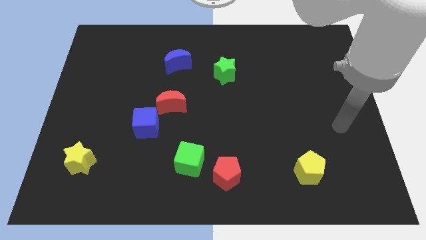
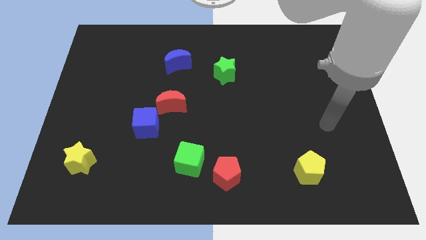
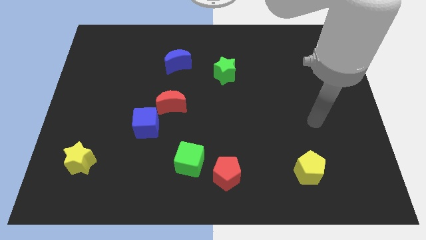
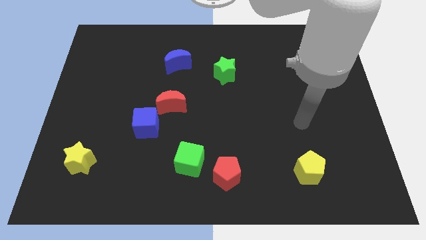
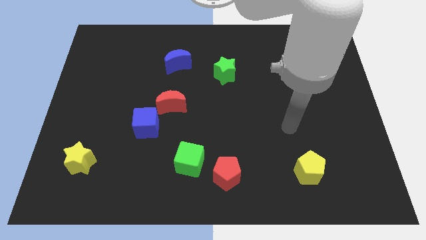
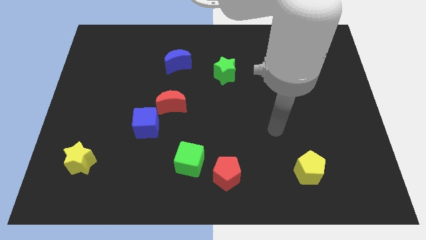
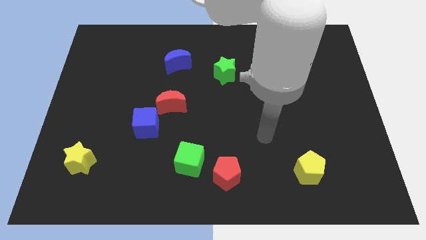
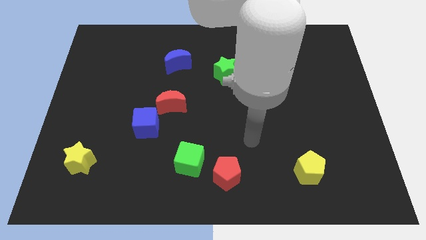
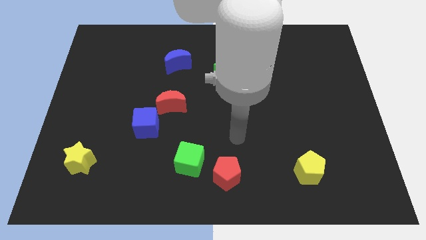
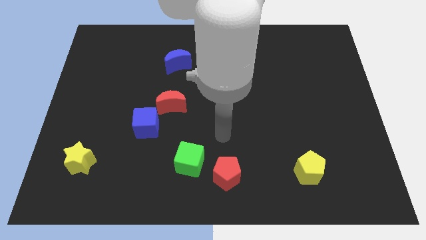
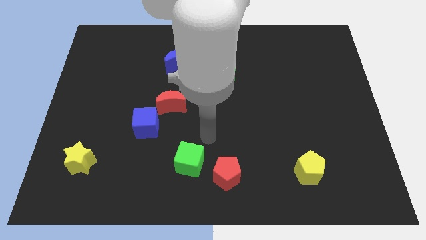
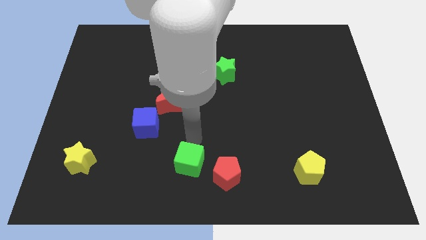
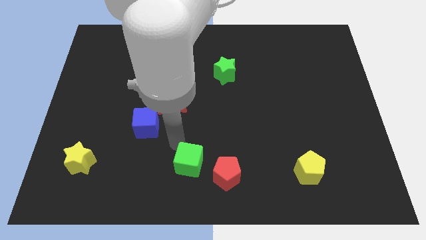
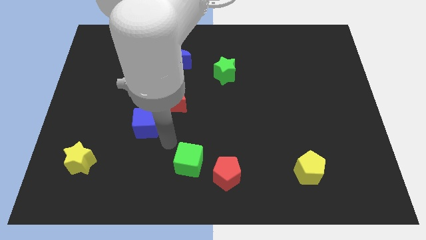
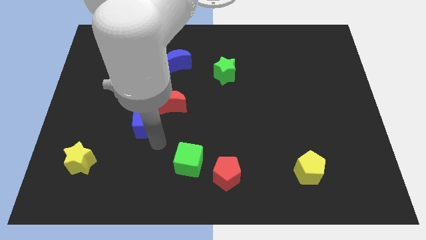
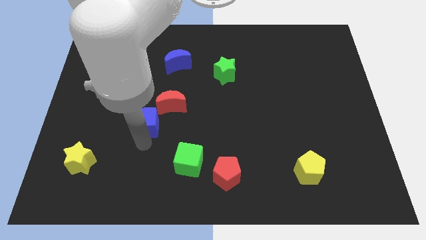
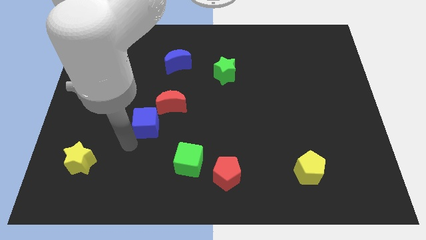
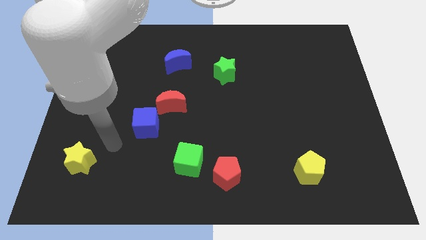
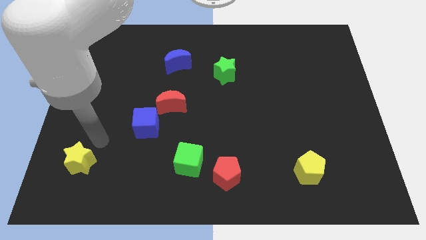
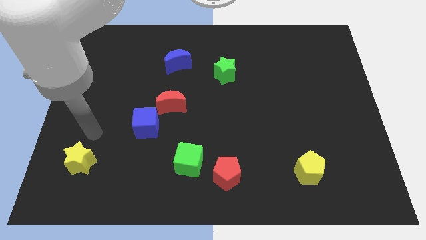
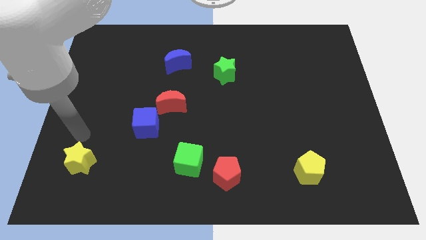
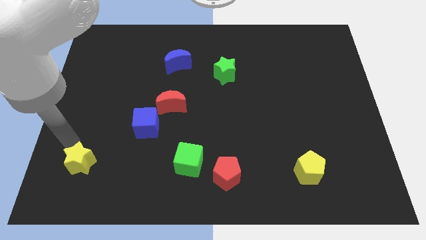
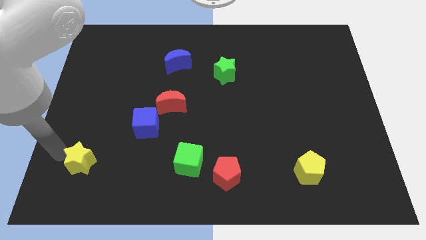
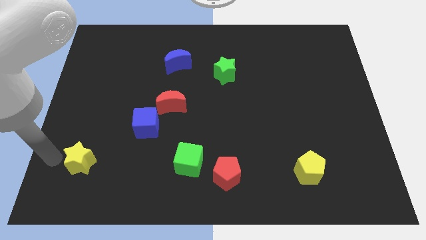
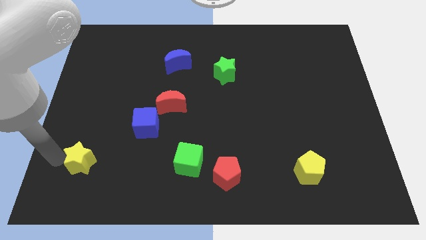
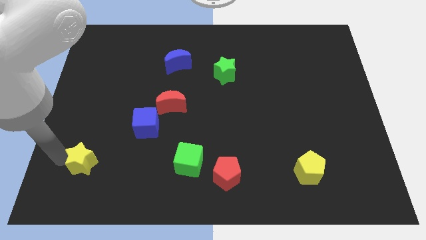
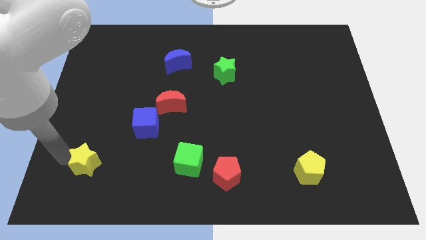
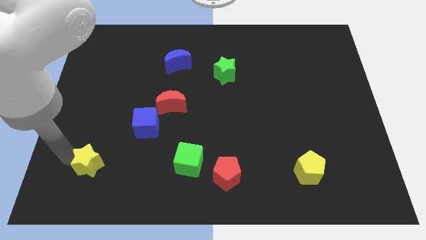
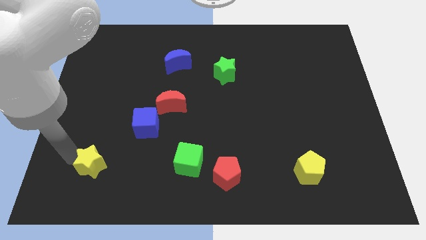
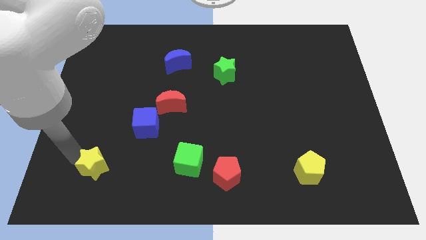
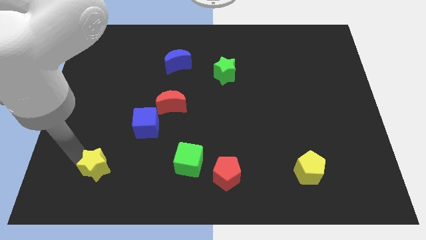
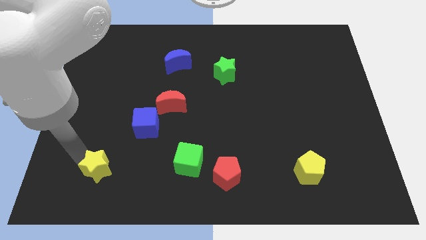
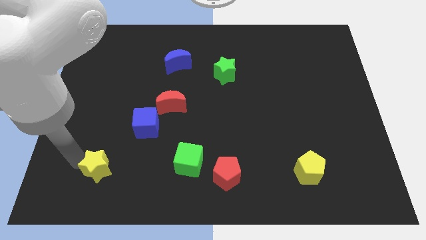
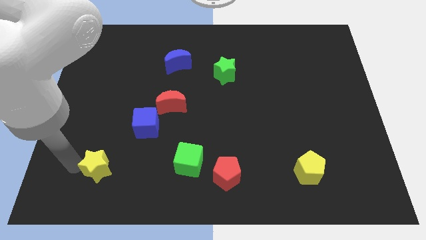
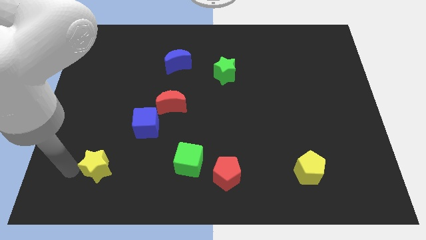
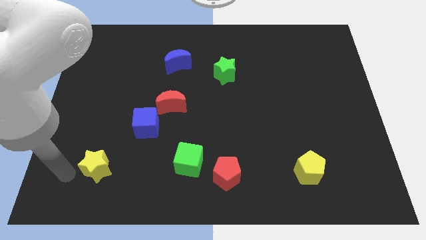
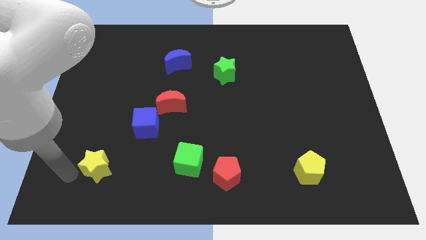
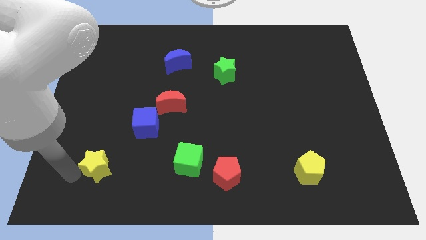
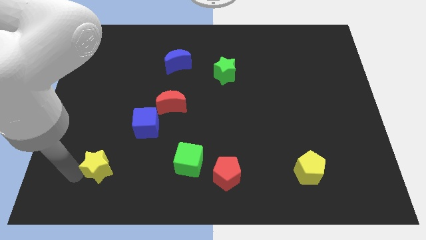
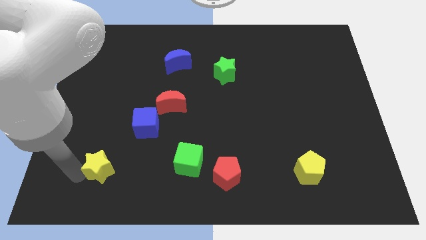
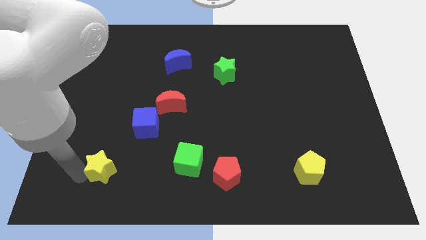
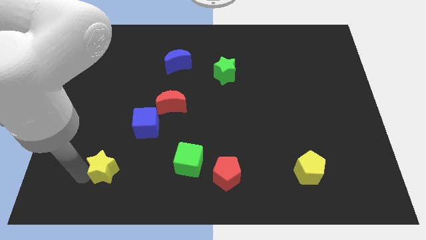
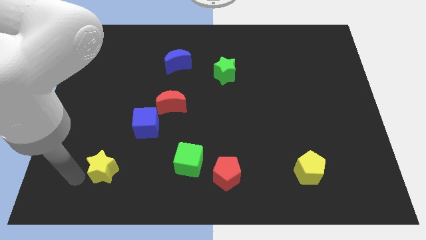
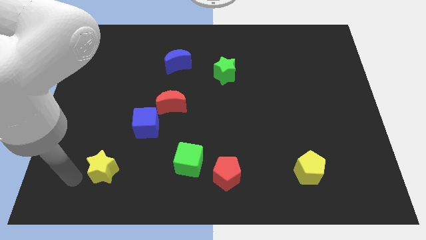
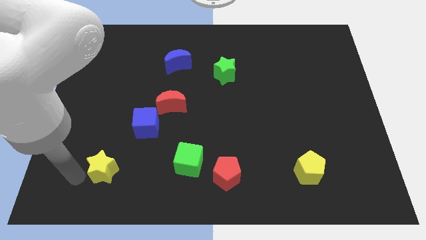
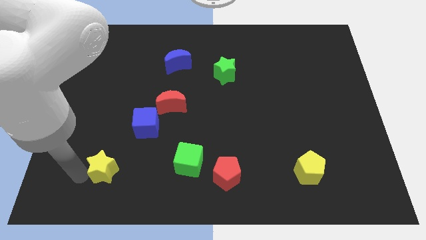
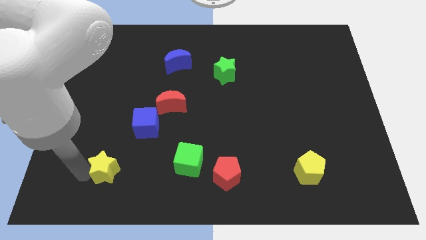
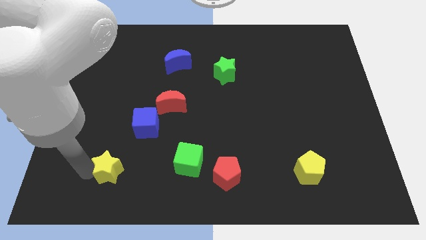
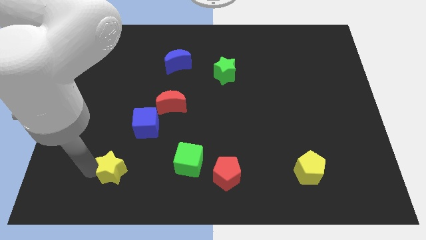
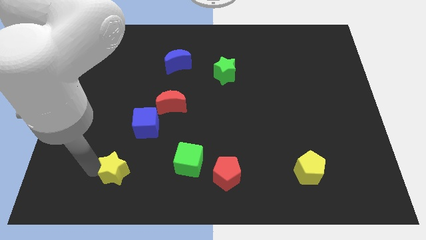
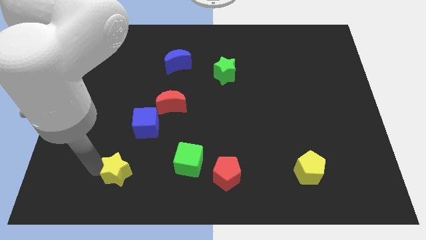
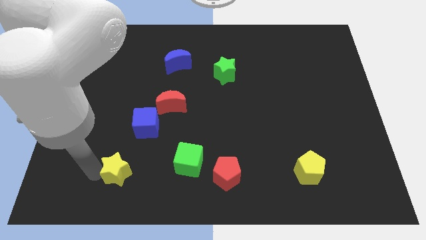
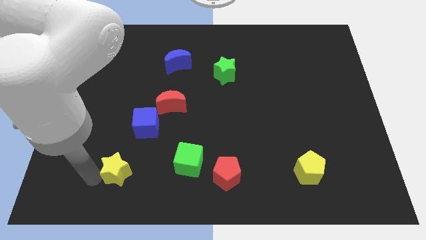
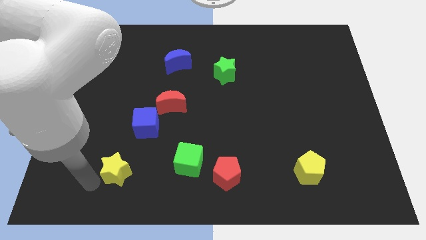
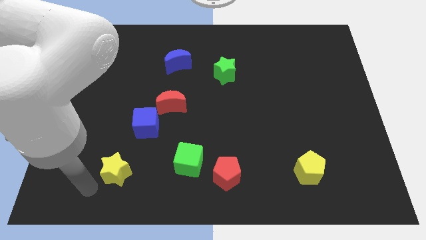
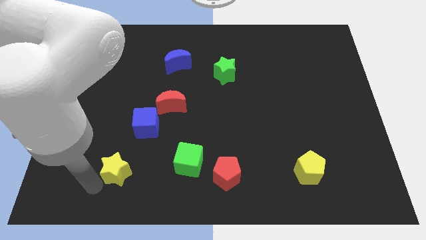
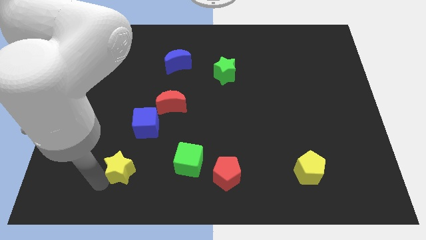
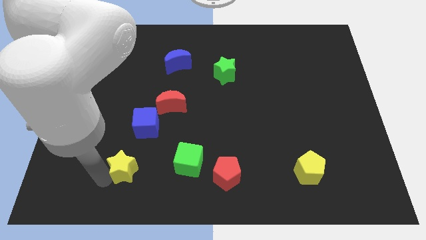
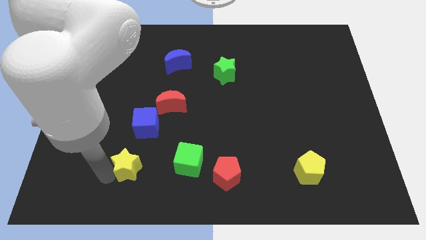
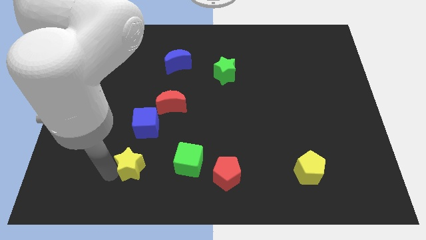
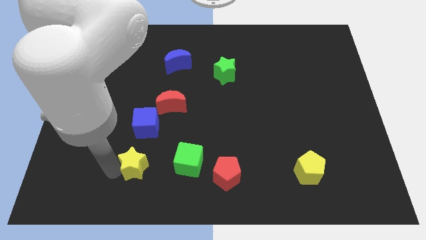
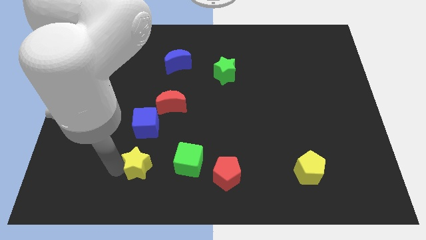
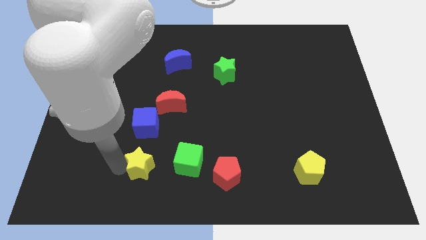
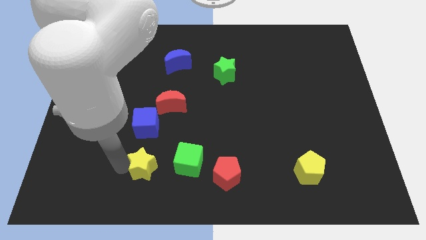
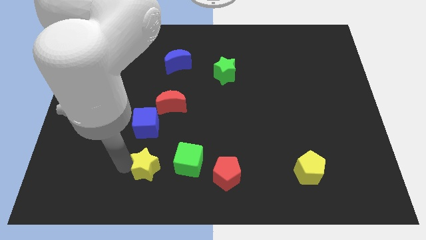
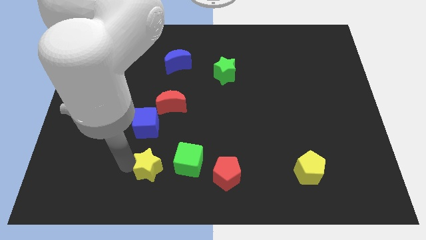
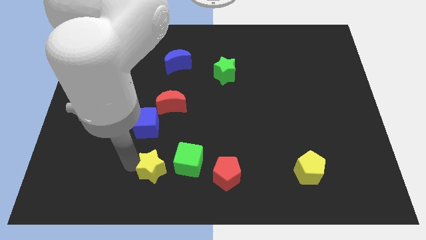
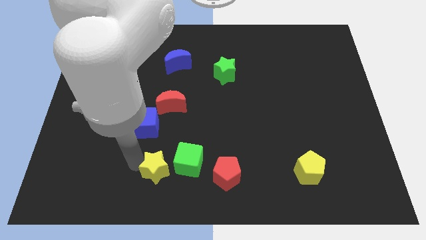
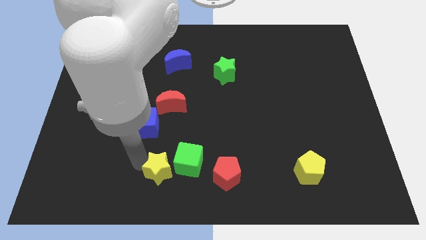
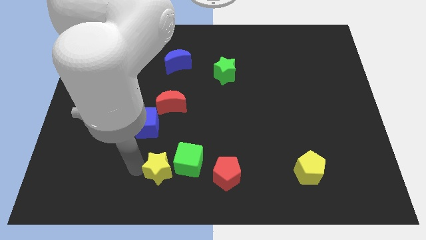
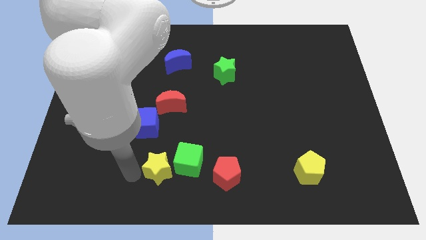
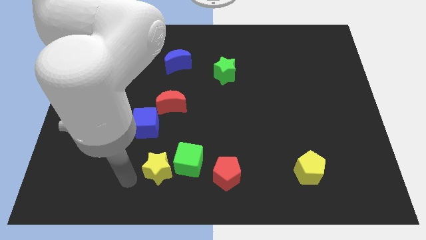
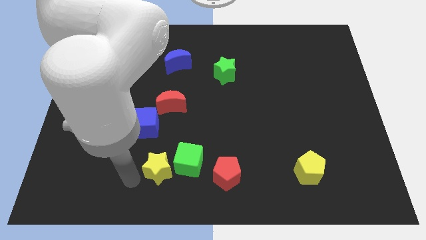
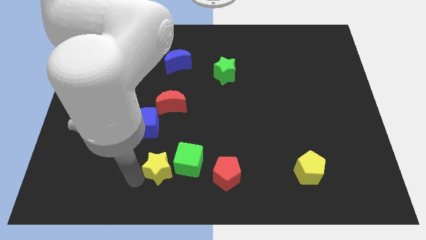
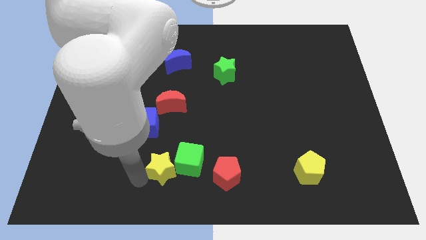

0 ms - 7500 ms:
put the yellow star to the green cube

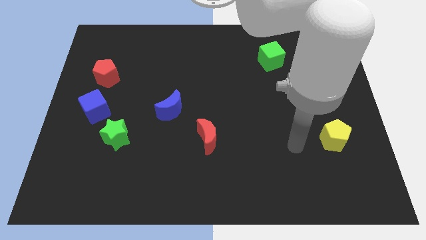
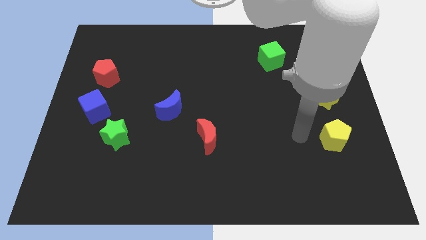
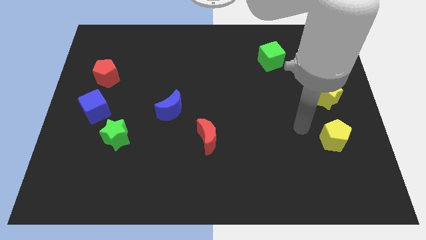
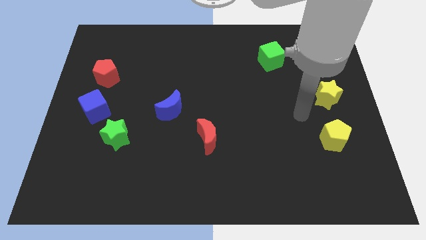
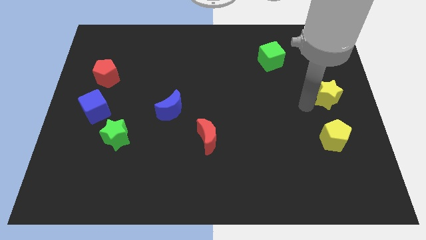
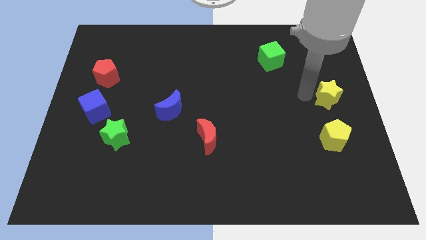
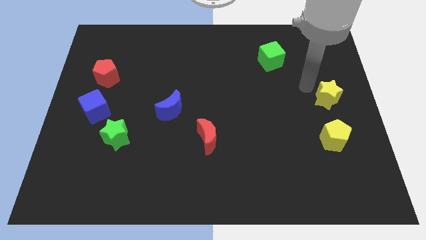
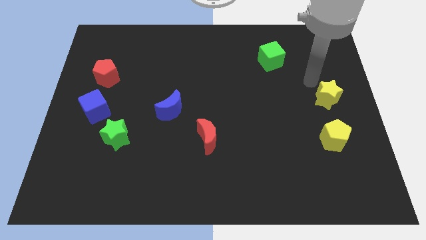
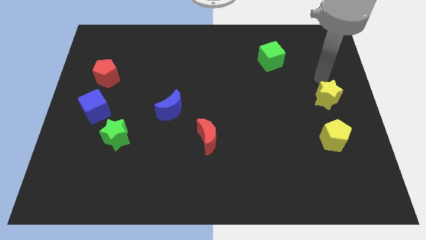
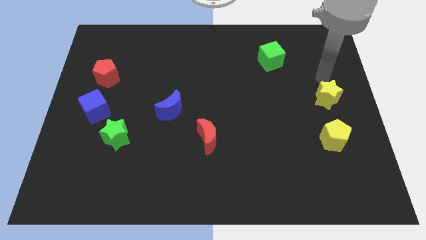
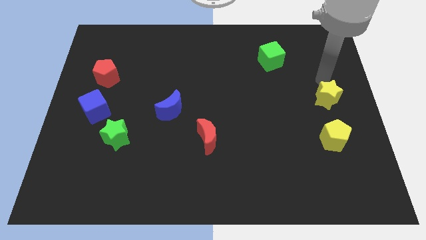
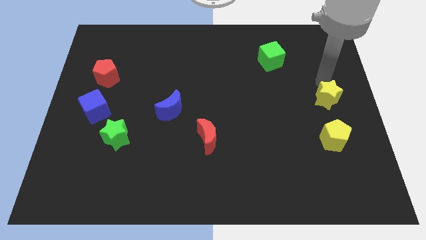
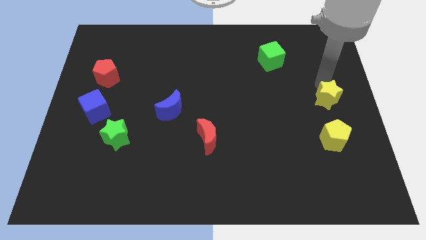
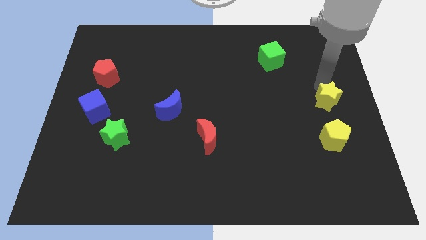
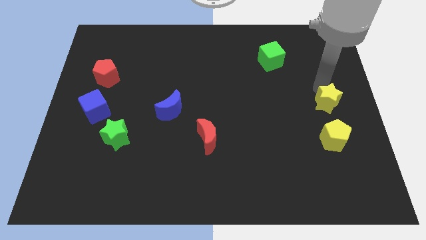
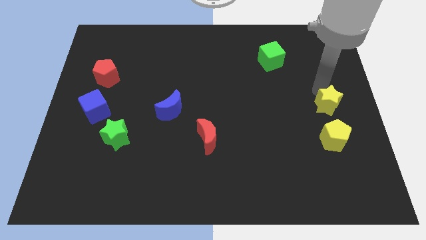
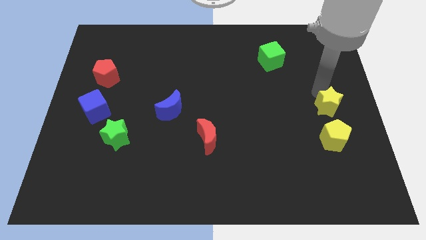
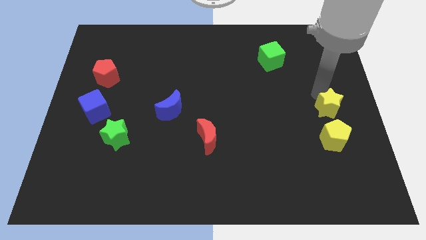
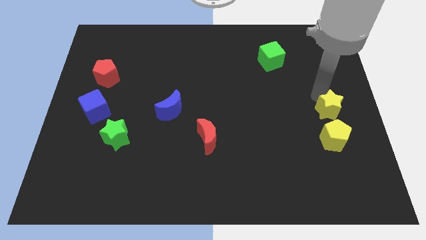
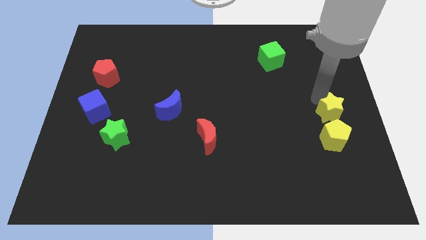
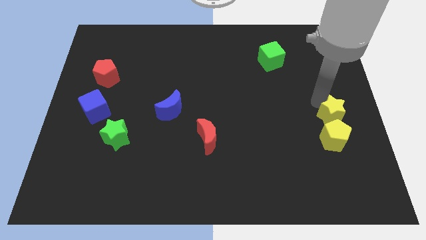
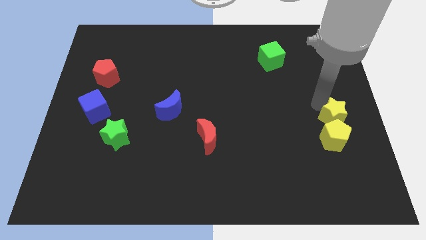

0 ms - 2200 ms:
slide the yellow star to the yellow pentagon
